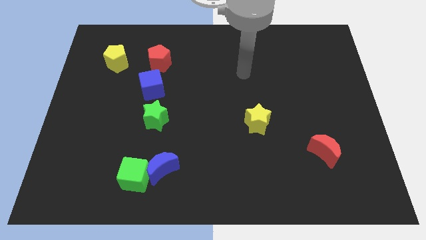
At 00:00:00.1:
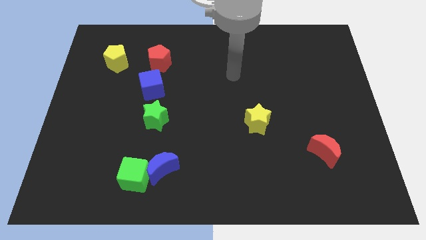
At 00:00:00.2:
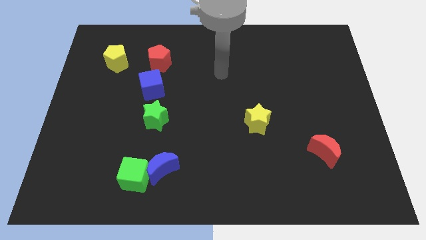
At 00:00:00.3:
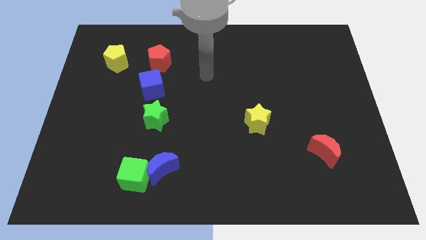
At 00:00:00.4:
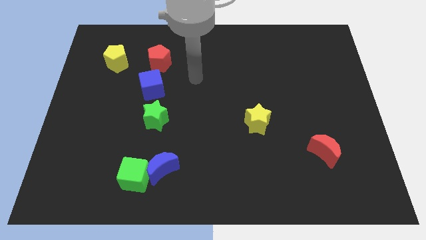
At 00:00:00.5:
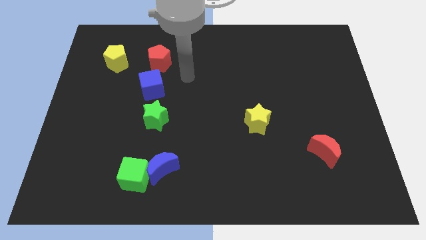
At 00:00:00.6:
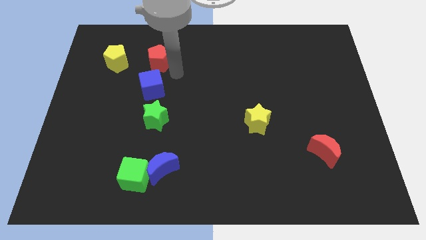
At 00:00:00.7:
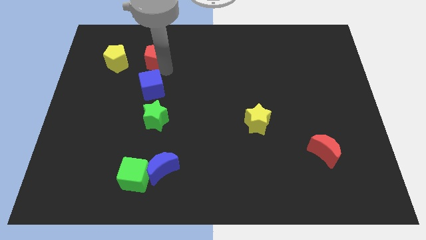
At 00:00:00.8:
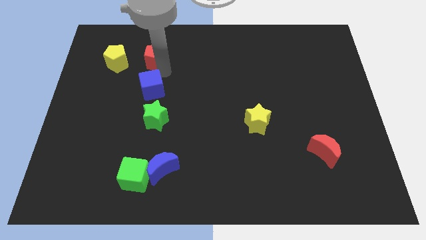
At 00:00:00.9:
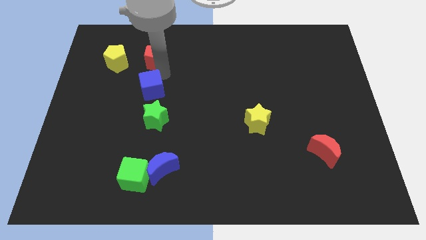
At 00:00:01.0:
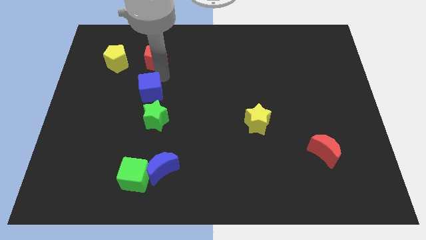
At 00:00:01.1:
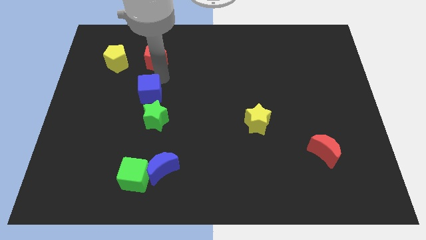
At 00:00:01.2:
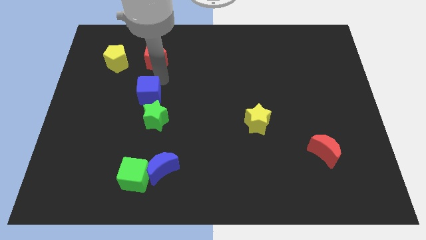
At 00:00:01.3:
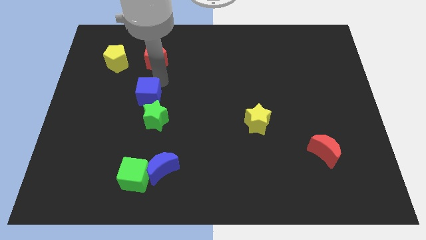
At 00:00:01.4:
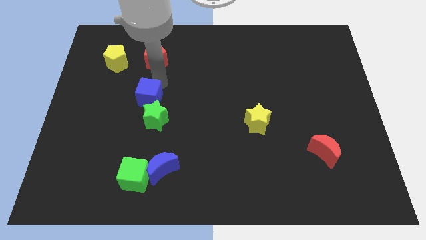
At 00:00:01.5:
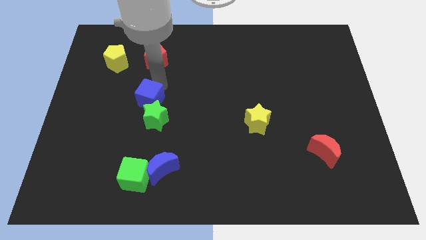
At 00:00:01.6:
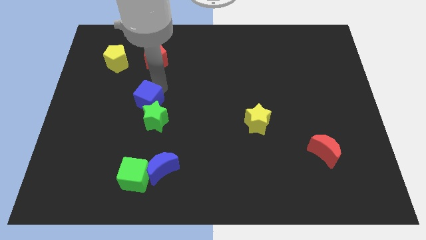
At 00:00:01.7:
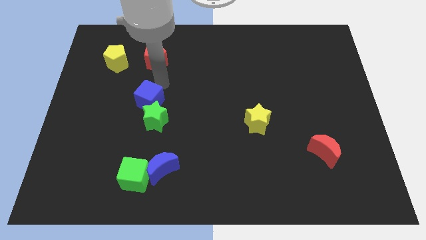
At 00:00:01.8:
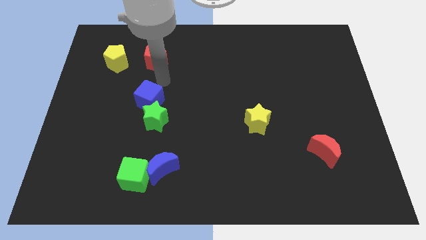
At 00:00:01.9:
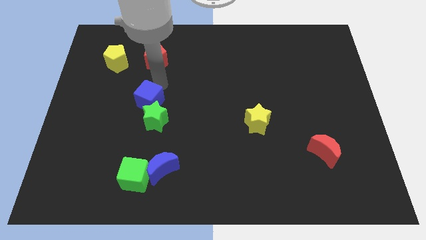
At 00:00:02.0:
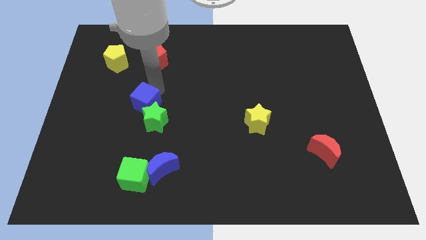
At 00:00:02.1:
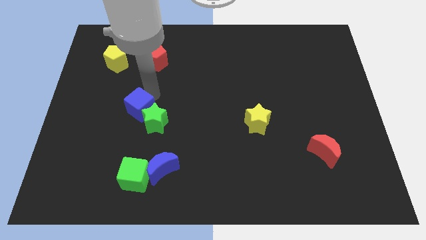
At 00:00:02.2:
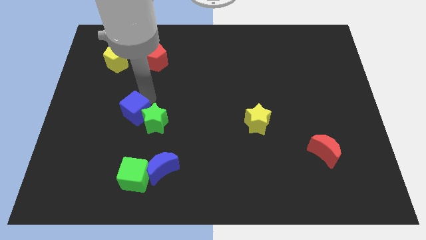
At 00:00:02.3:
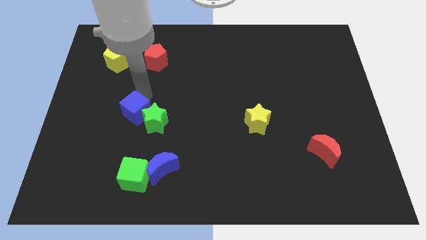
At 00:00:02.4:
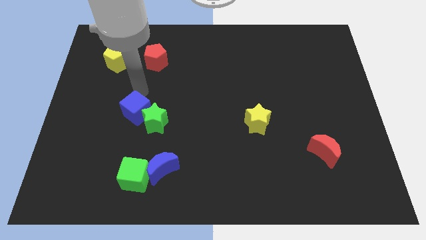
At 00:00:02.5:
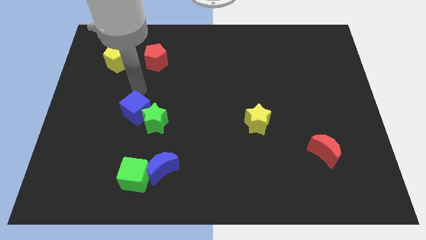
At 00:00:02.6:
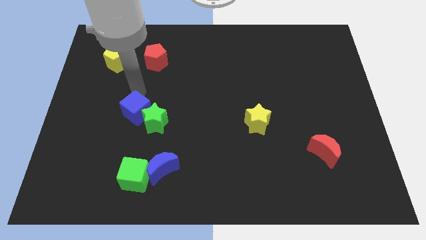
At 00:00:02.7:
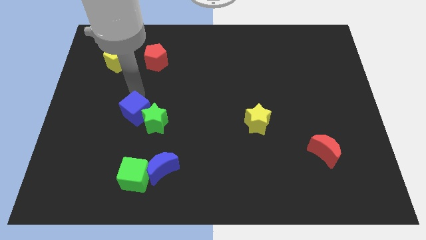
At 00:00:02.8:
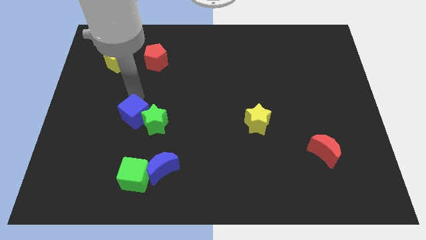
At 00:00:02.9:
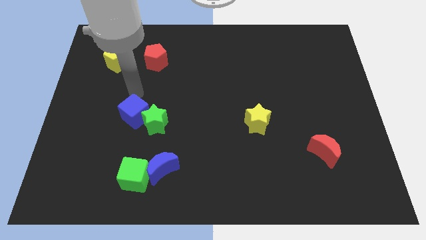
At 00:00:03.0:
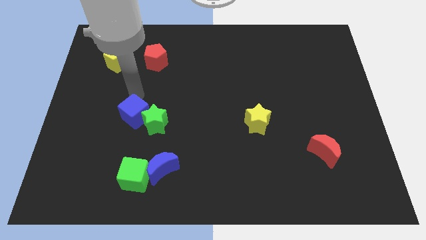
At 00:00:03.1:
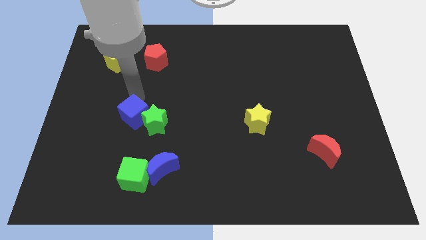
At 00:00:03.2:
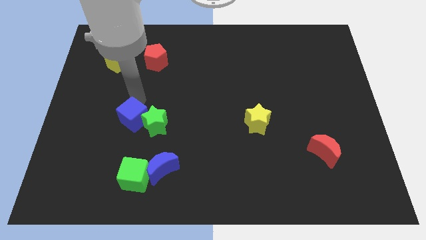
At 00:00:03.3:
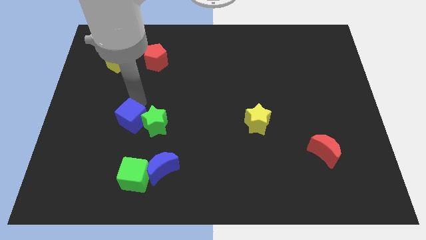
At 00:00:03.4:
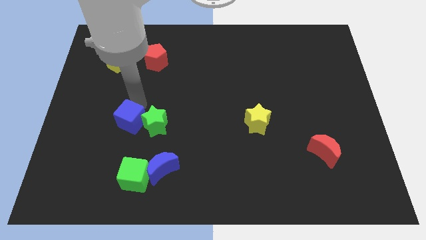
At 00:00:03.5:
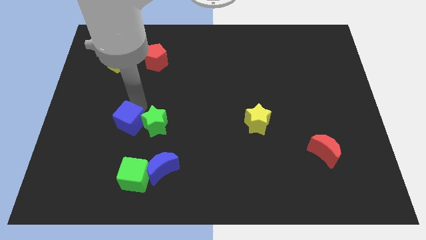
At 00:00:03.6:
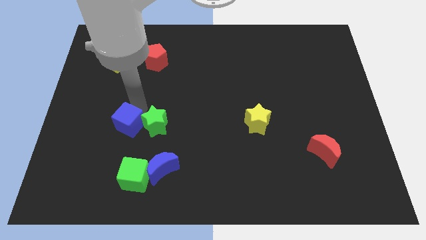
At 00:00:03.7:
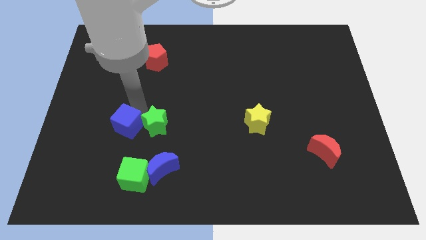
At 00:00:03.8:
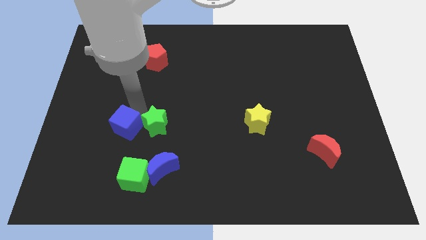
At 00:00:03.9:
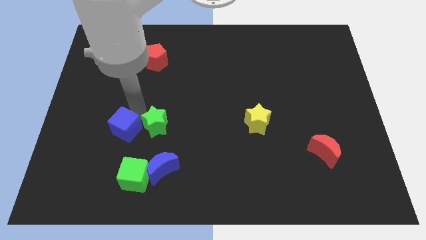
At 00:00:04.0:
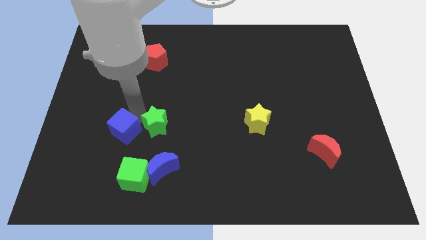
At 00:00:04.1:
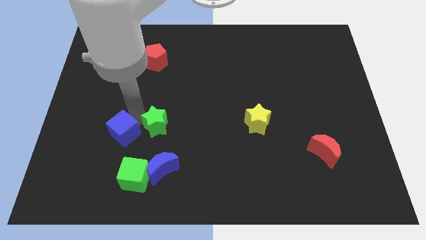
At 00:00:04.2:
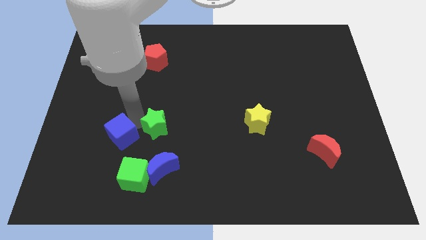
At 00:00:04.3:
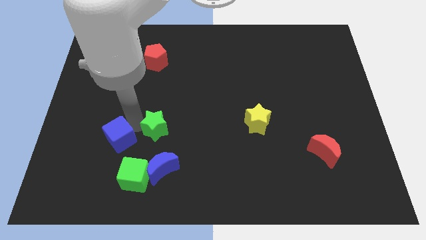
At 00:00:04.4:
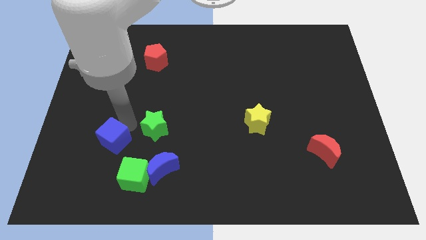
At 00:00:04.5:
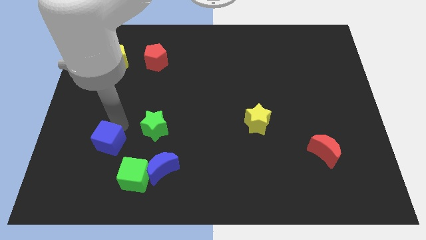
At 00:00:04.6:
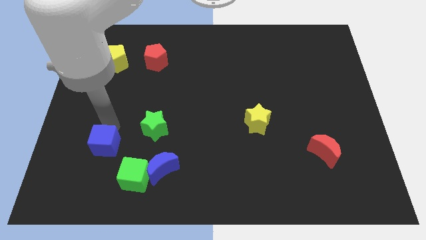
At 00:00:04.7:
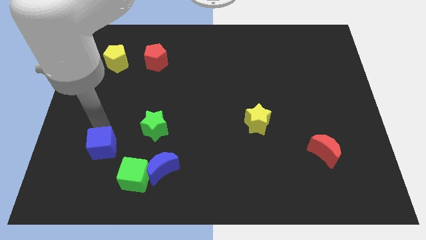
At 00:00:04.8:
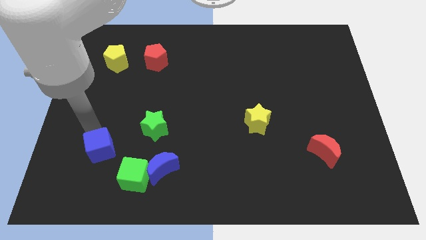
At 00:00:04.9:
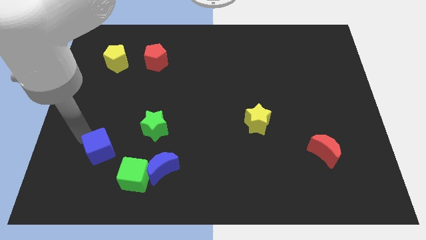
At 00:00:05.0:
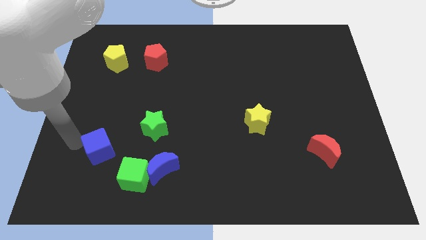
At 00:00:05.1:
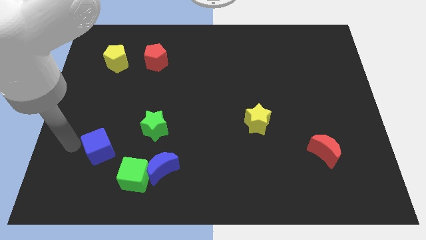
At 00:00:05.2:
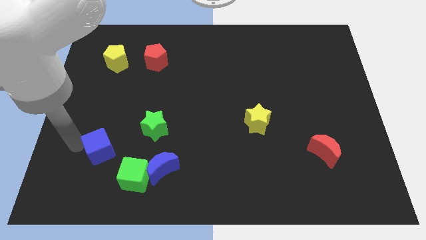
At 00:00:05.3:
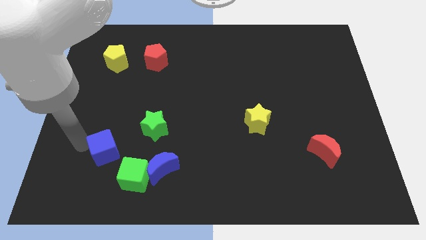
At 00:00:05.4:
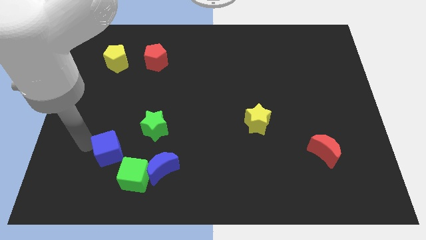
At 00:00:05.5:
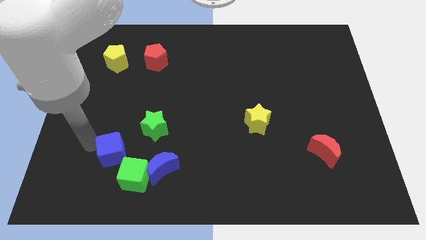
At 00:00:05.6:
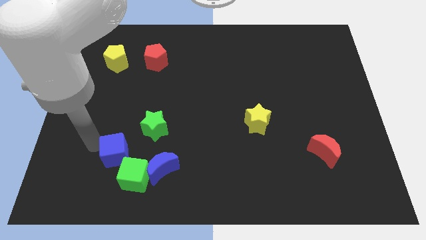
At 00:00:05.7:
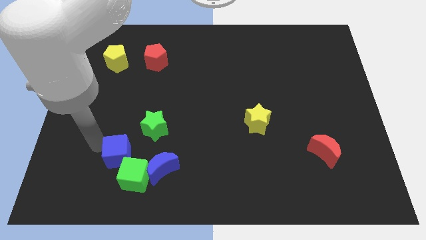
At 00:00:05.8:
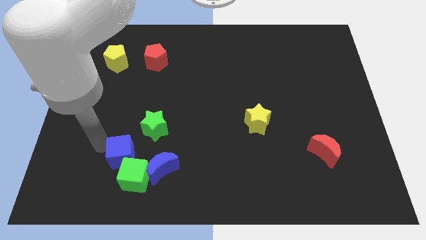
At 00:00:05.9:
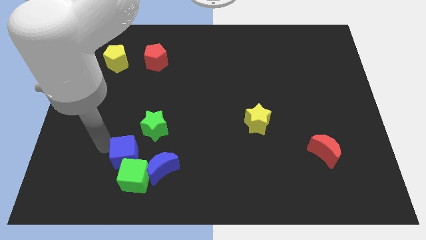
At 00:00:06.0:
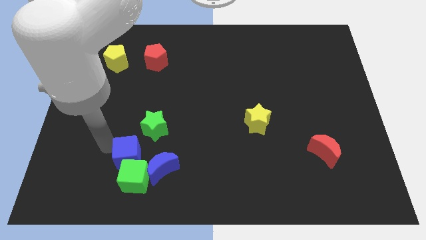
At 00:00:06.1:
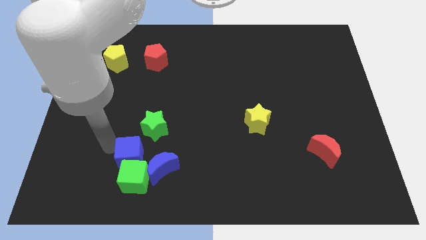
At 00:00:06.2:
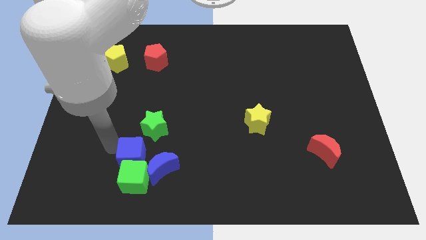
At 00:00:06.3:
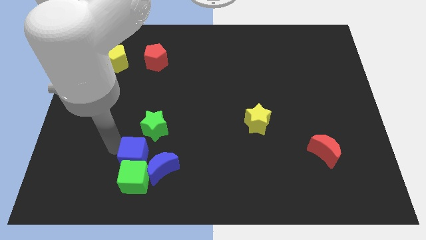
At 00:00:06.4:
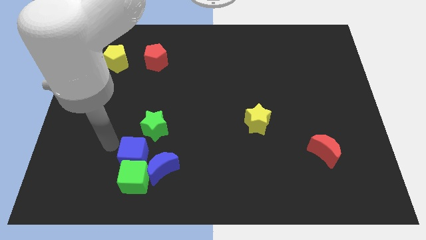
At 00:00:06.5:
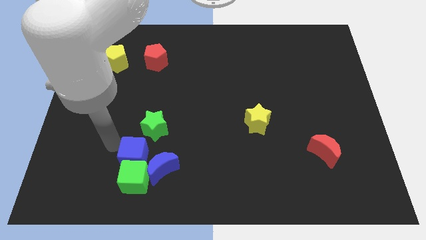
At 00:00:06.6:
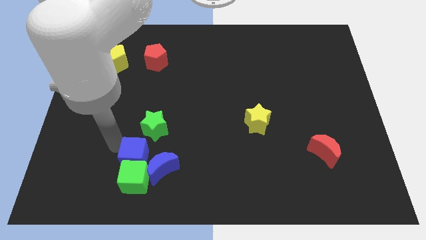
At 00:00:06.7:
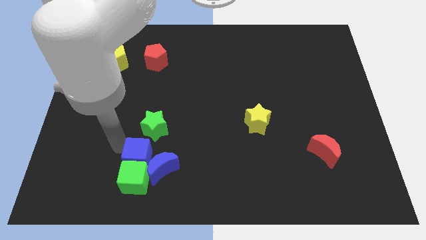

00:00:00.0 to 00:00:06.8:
push the blue cube close to the blue moon
